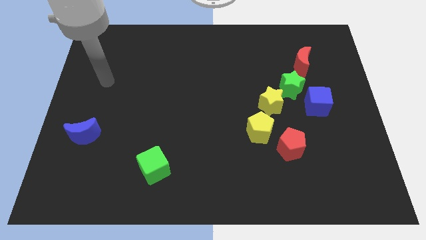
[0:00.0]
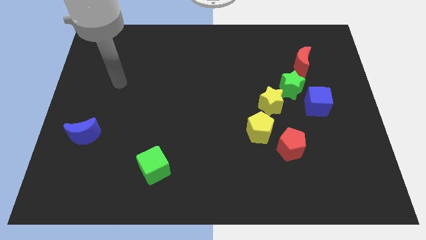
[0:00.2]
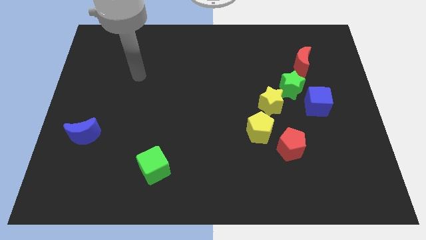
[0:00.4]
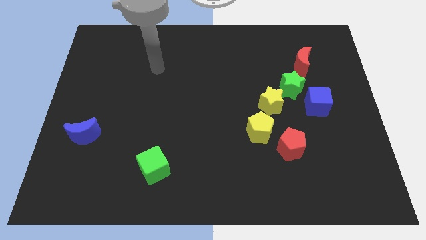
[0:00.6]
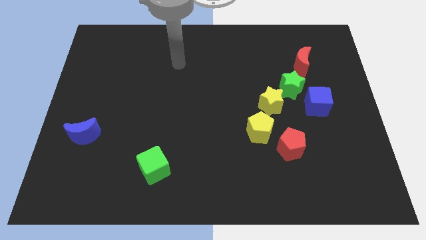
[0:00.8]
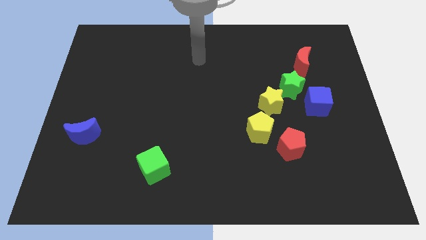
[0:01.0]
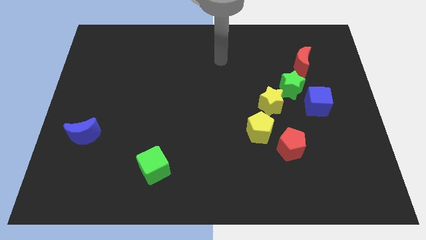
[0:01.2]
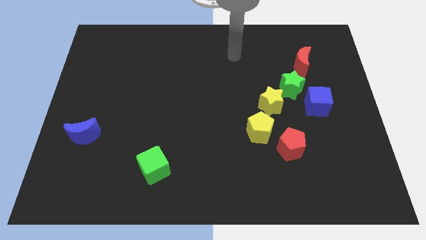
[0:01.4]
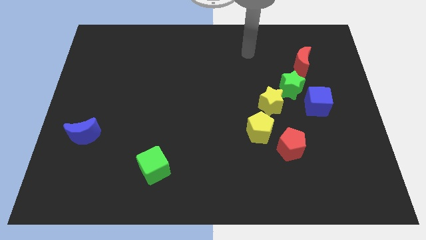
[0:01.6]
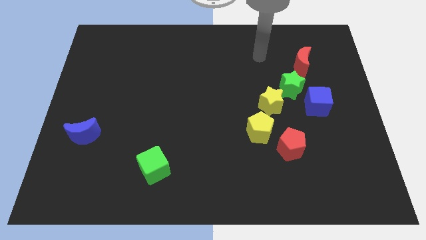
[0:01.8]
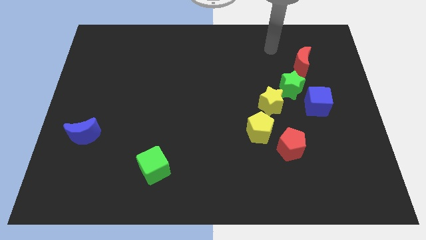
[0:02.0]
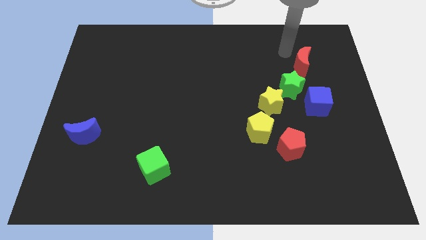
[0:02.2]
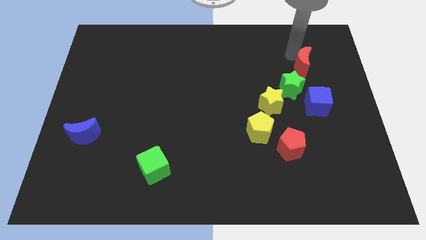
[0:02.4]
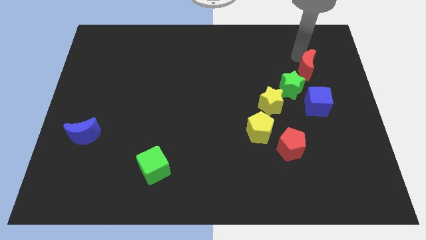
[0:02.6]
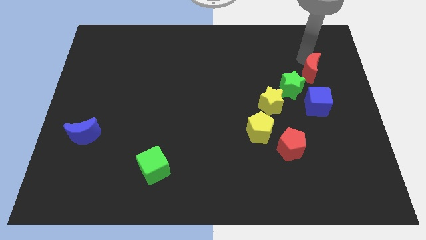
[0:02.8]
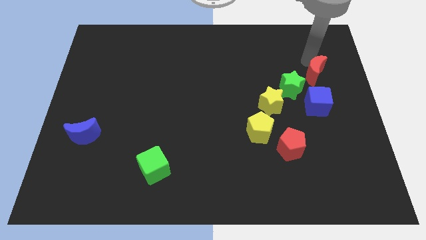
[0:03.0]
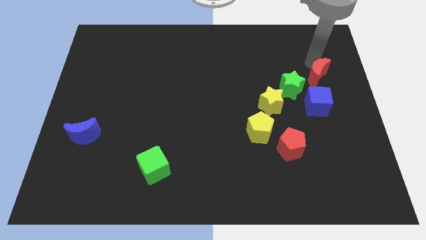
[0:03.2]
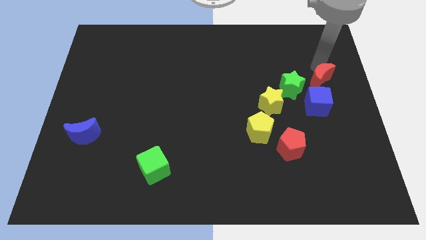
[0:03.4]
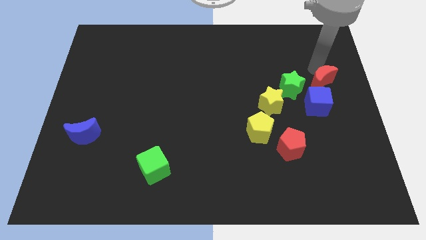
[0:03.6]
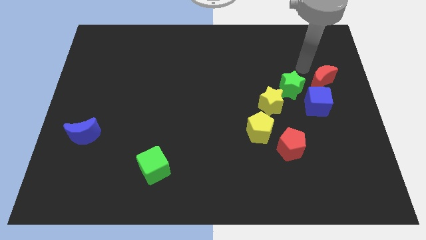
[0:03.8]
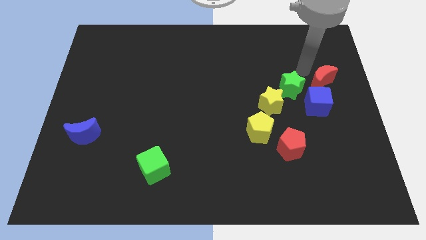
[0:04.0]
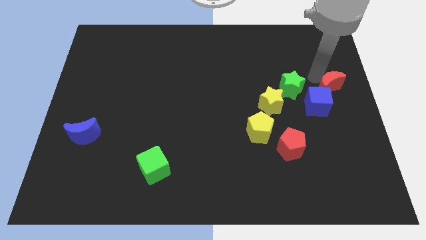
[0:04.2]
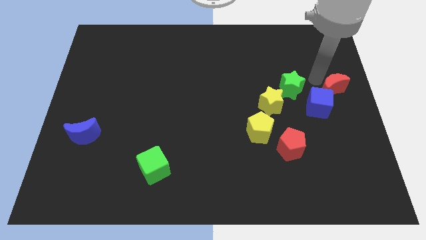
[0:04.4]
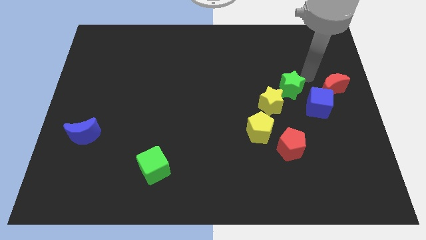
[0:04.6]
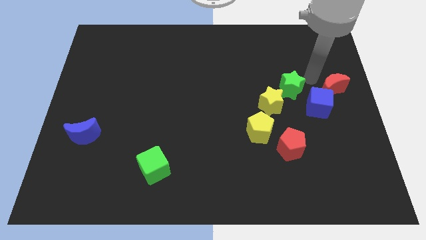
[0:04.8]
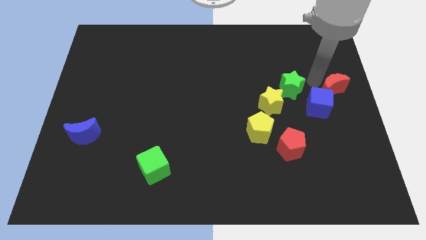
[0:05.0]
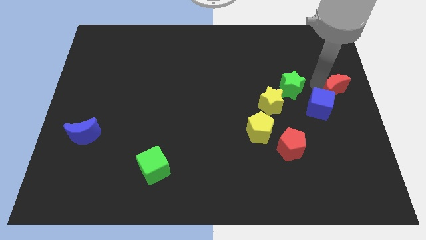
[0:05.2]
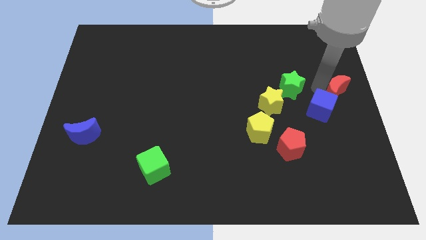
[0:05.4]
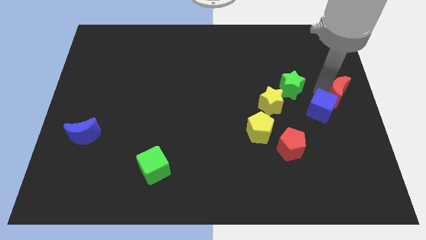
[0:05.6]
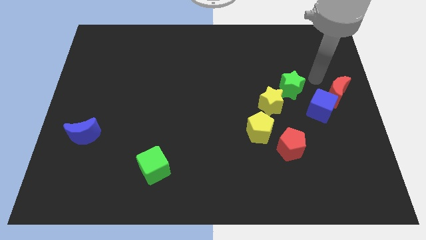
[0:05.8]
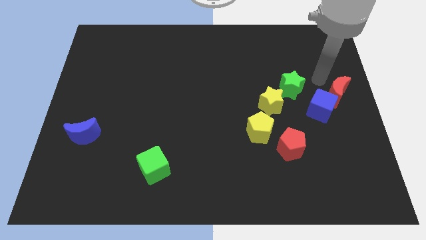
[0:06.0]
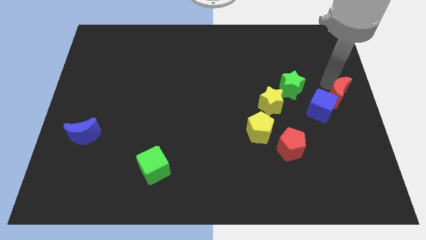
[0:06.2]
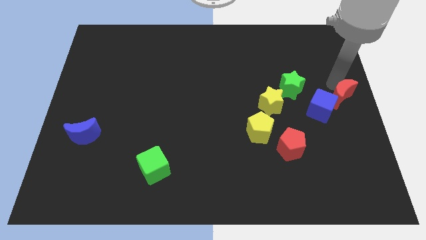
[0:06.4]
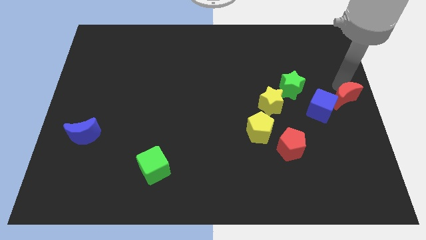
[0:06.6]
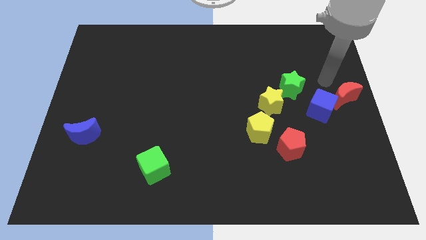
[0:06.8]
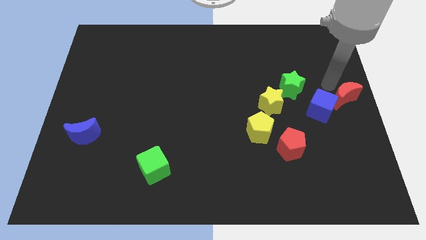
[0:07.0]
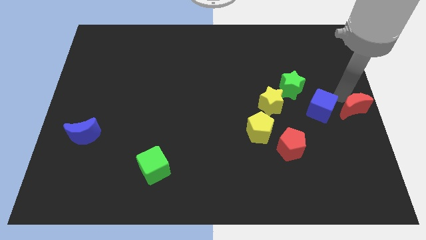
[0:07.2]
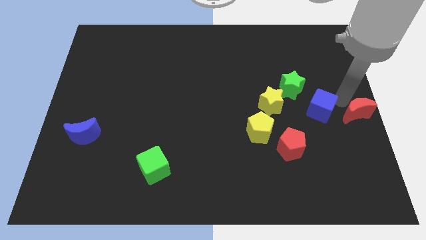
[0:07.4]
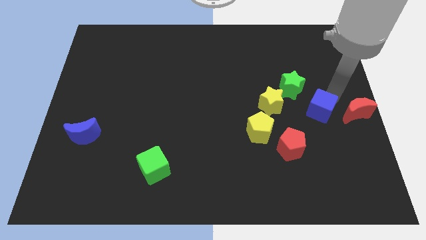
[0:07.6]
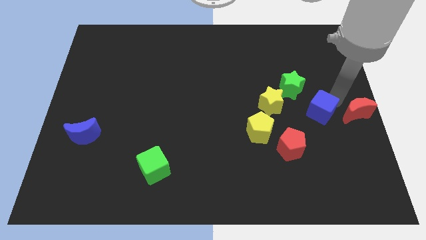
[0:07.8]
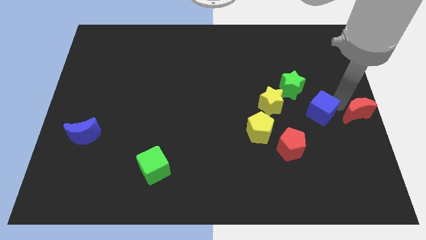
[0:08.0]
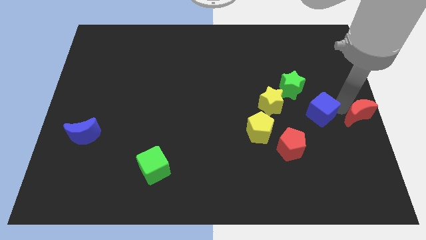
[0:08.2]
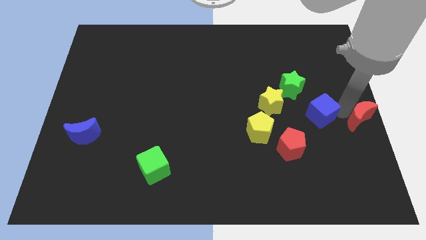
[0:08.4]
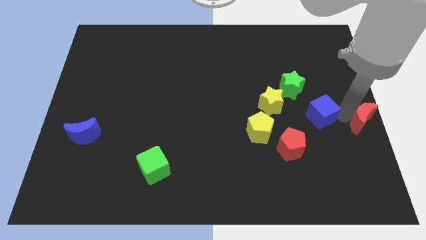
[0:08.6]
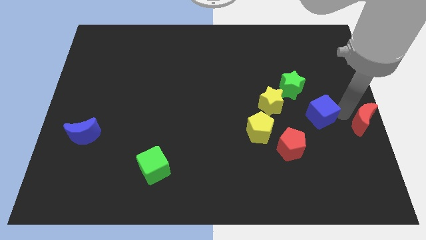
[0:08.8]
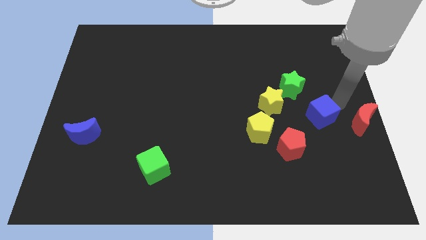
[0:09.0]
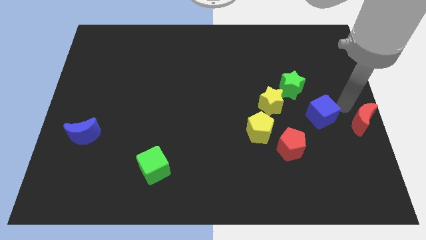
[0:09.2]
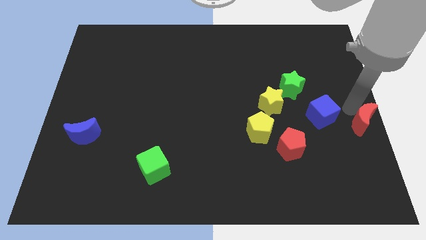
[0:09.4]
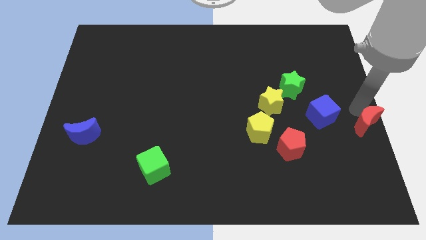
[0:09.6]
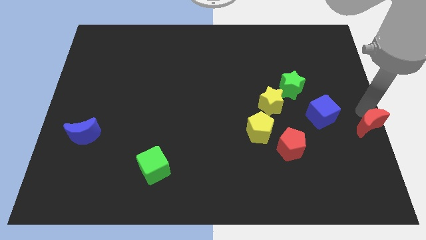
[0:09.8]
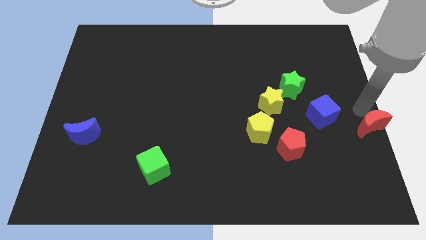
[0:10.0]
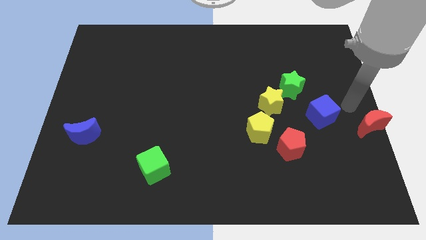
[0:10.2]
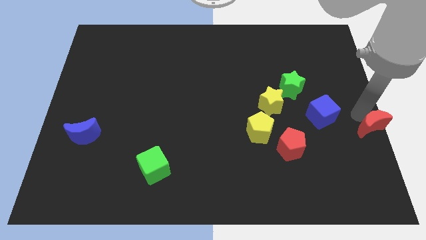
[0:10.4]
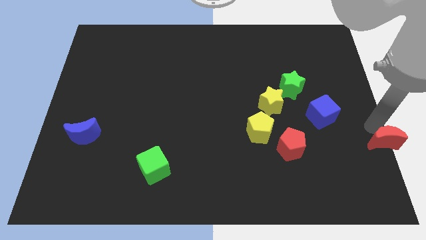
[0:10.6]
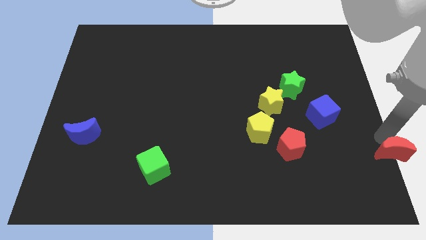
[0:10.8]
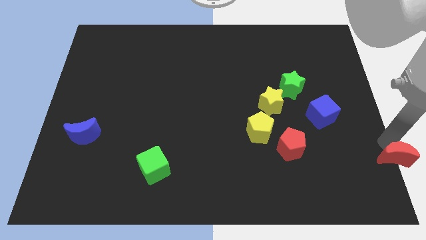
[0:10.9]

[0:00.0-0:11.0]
move the red moon to the bottom right corner
